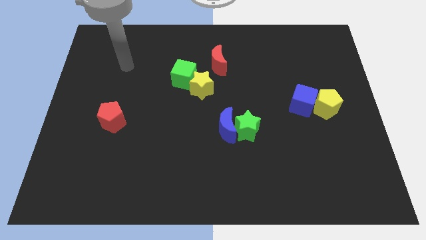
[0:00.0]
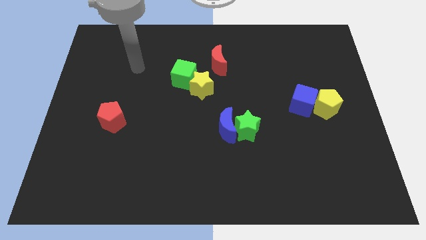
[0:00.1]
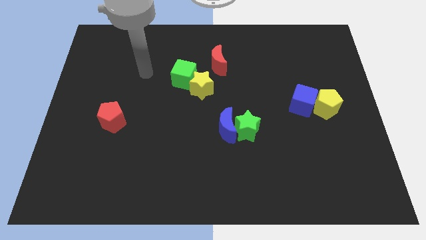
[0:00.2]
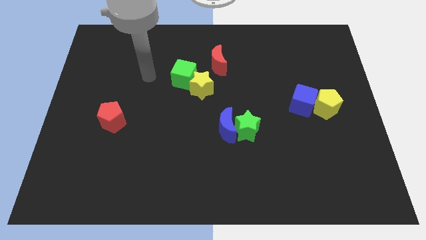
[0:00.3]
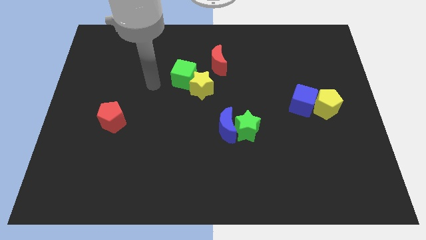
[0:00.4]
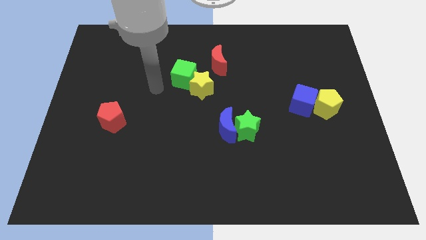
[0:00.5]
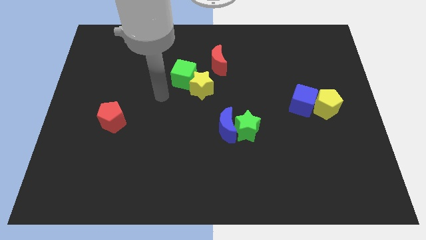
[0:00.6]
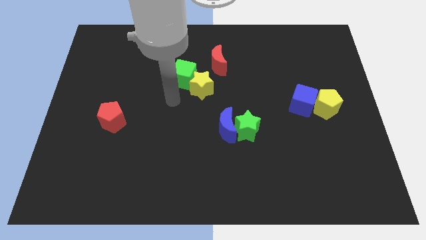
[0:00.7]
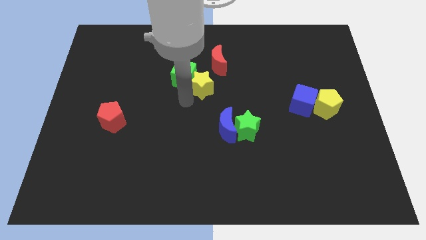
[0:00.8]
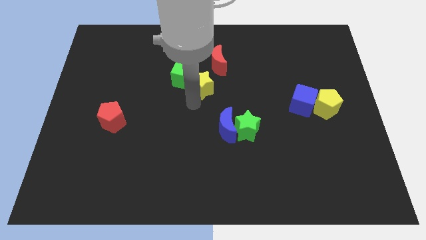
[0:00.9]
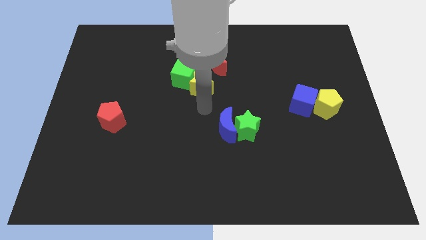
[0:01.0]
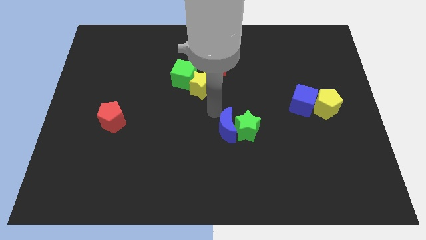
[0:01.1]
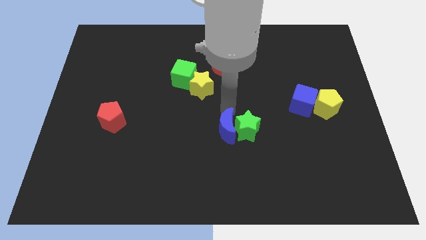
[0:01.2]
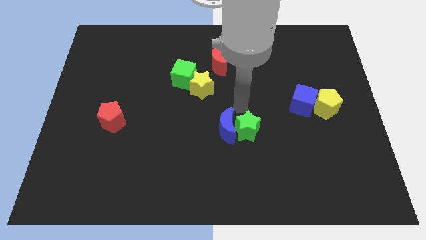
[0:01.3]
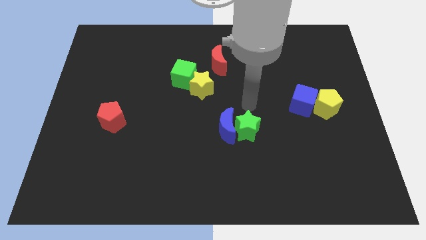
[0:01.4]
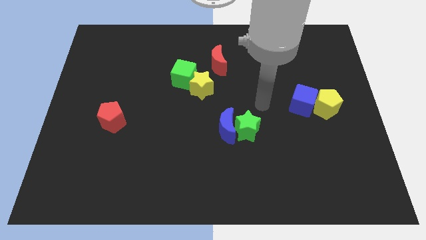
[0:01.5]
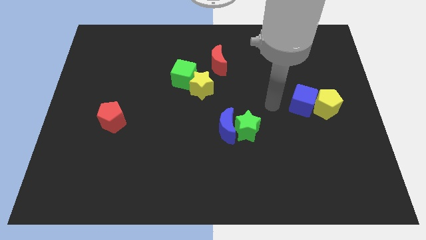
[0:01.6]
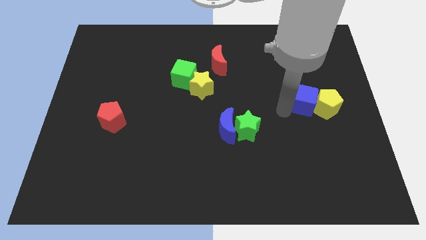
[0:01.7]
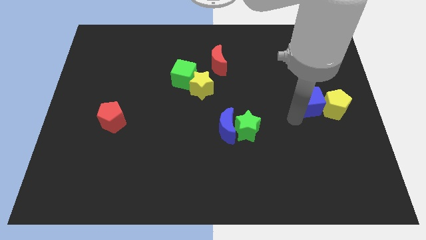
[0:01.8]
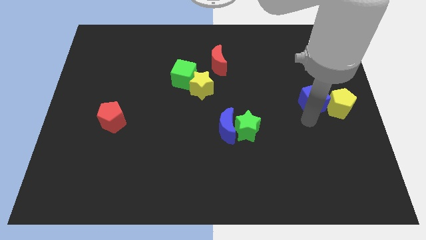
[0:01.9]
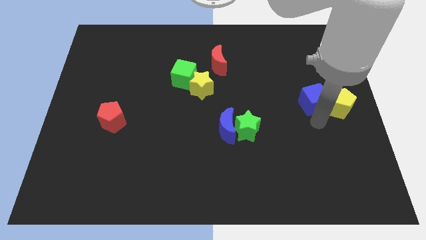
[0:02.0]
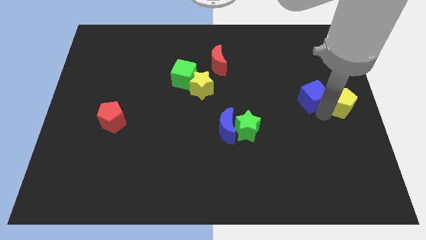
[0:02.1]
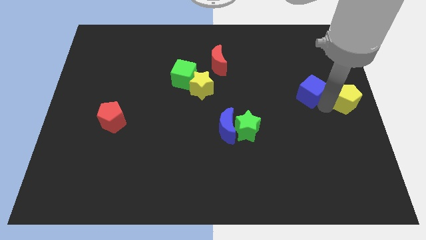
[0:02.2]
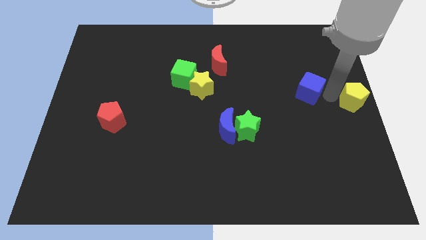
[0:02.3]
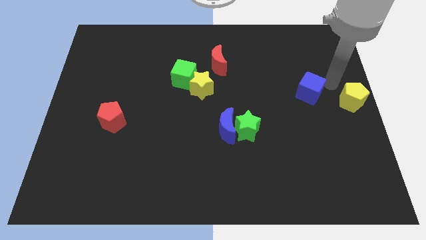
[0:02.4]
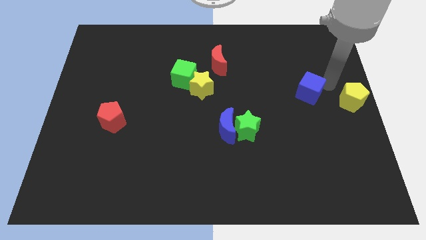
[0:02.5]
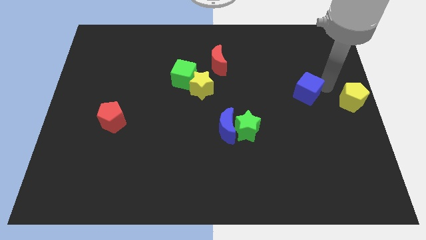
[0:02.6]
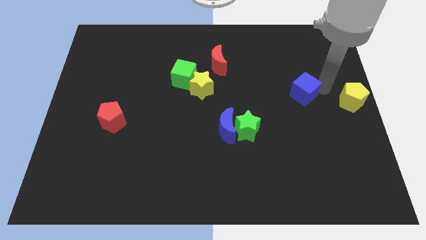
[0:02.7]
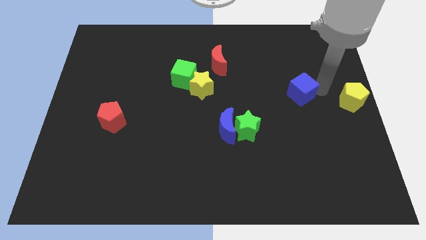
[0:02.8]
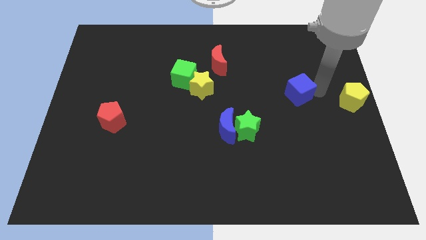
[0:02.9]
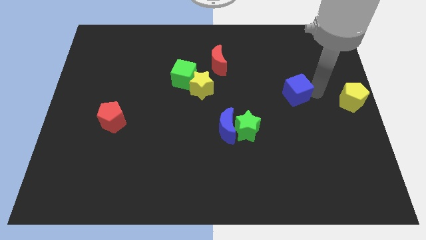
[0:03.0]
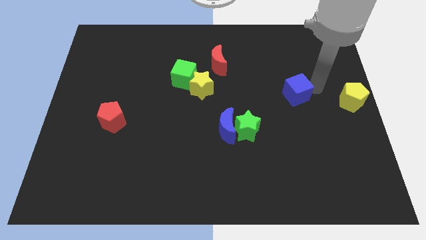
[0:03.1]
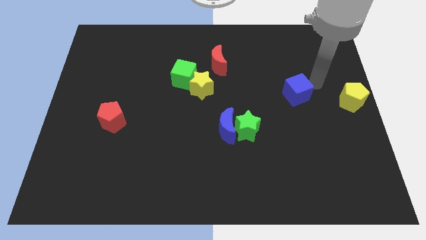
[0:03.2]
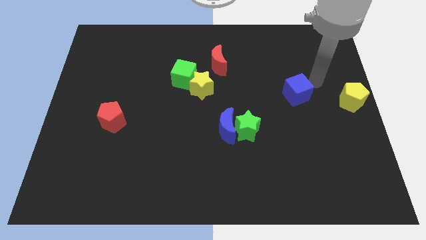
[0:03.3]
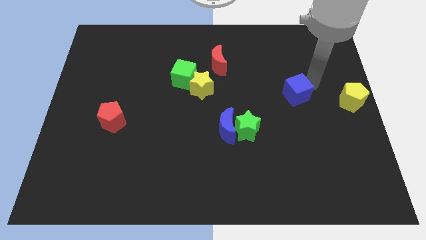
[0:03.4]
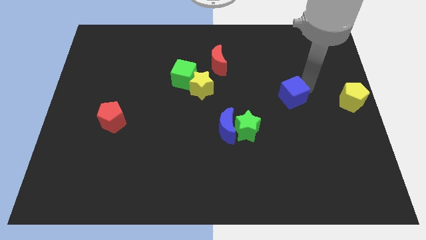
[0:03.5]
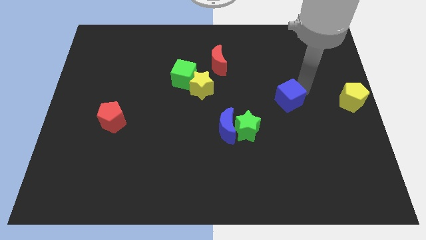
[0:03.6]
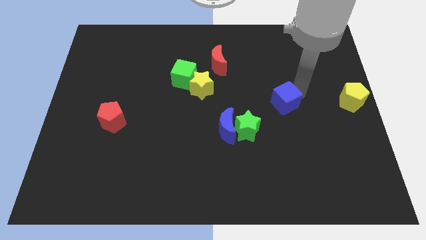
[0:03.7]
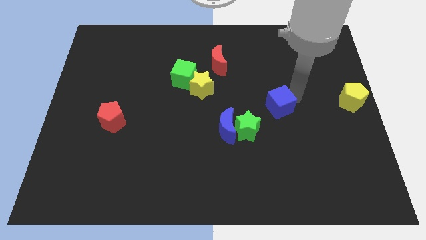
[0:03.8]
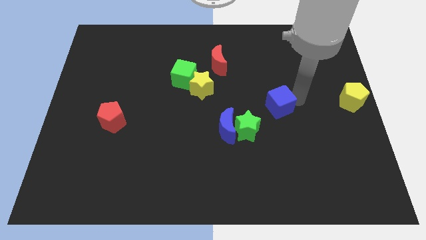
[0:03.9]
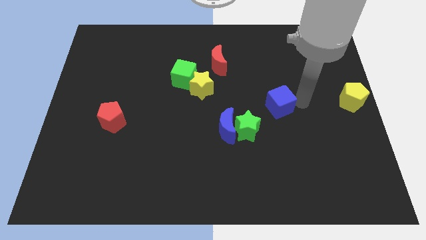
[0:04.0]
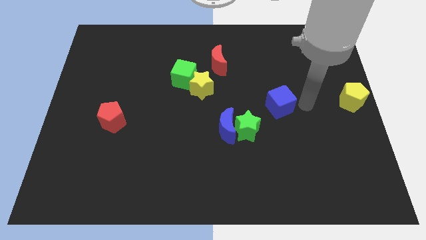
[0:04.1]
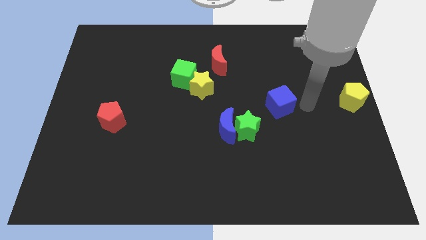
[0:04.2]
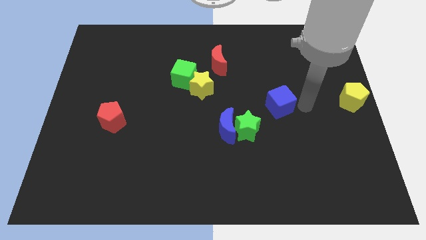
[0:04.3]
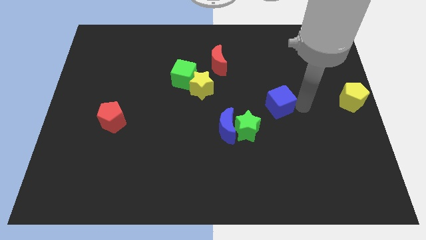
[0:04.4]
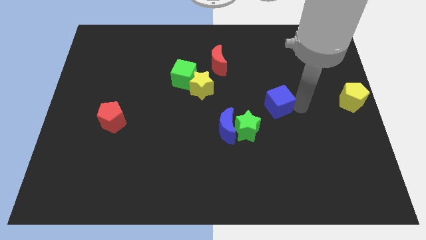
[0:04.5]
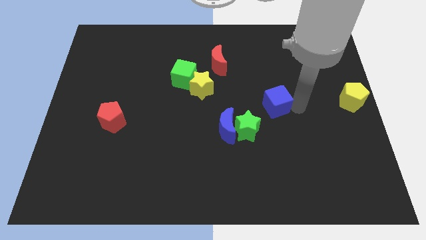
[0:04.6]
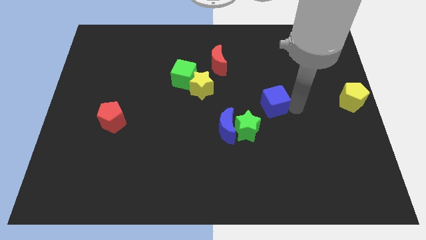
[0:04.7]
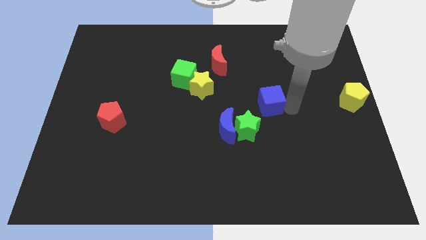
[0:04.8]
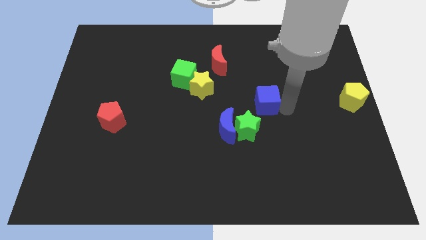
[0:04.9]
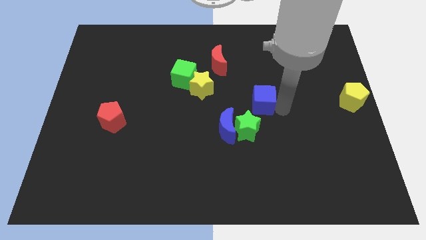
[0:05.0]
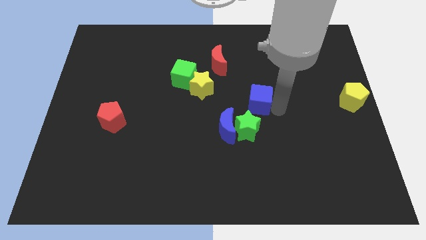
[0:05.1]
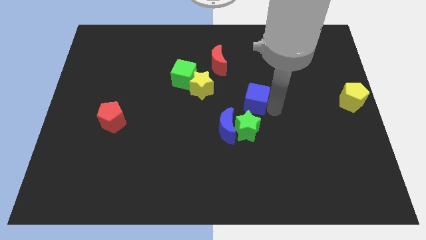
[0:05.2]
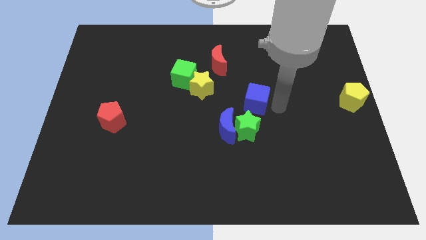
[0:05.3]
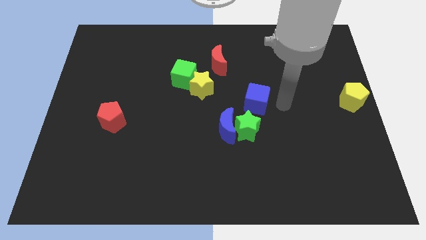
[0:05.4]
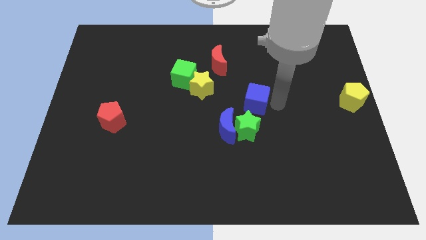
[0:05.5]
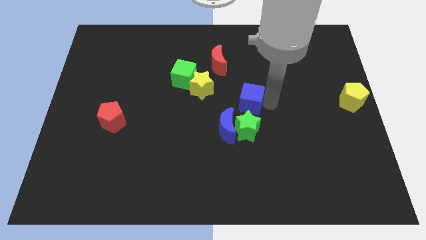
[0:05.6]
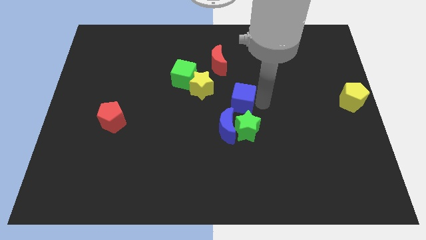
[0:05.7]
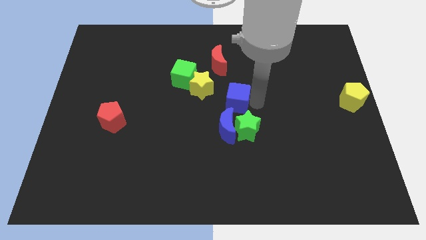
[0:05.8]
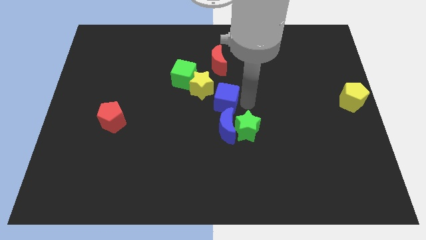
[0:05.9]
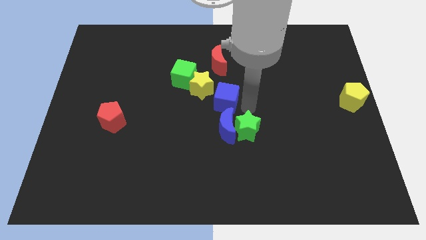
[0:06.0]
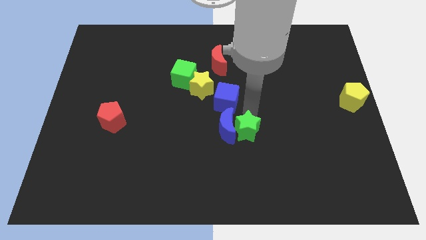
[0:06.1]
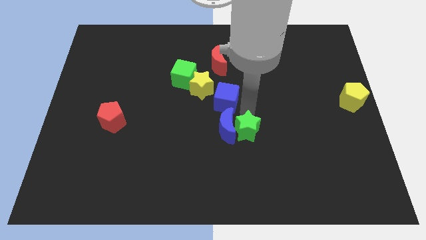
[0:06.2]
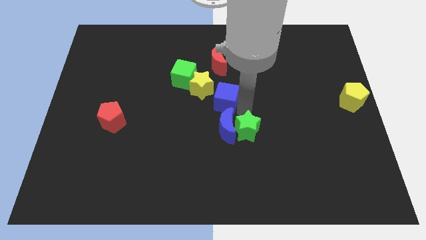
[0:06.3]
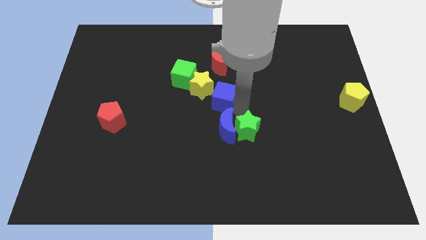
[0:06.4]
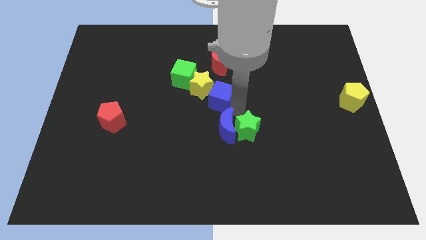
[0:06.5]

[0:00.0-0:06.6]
push the blue cube next to the yellow star
